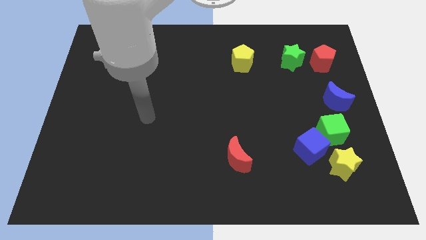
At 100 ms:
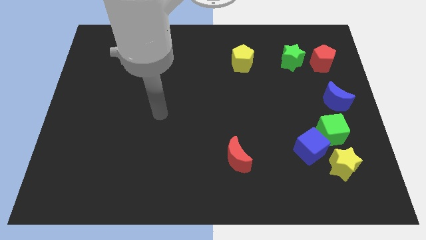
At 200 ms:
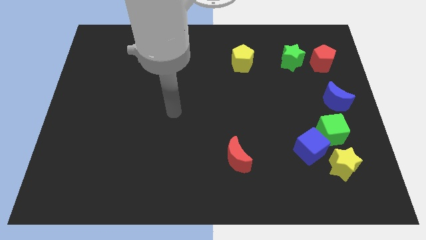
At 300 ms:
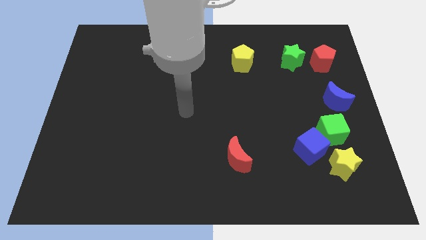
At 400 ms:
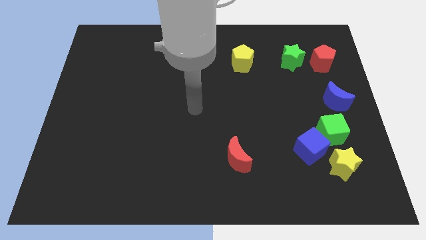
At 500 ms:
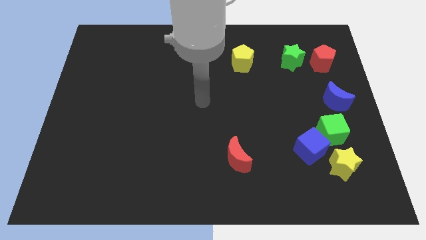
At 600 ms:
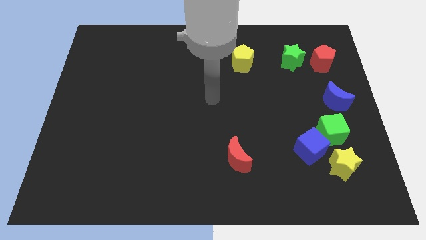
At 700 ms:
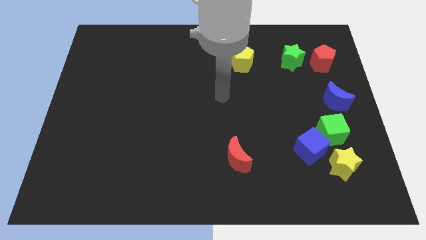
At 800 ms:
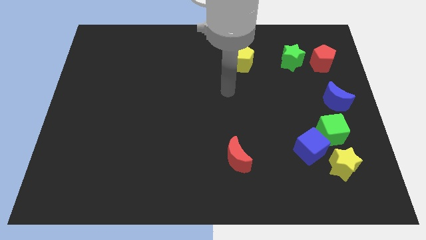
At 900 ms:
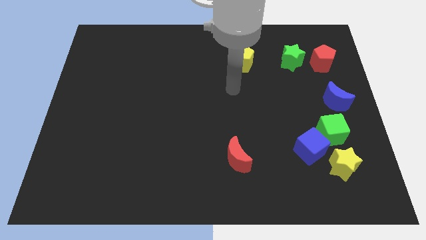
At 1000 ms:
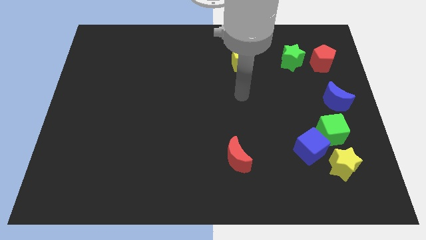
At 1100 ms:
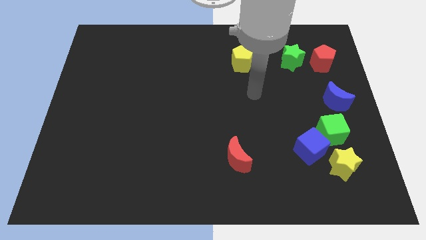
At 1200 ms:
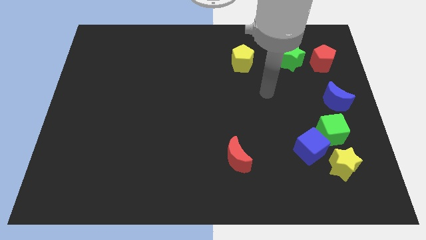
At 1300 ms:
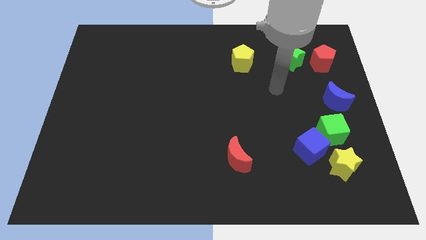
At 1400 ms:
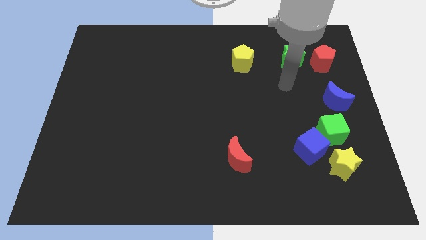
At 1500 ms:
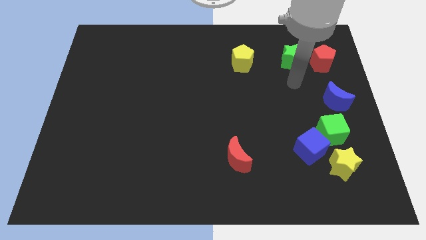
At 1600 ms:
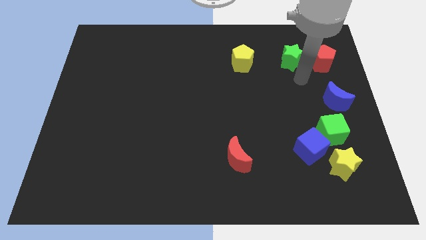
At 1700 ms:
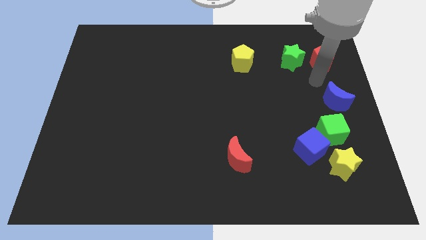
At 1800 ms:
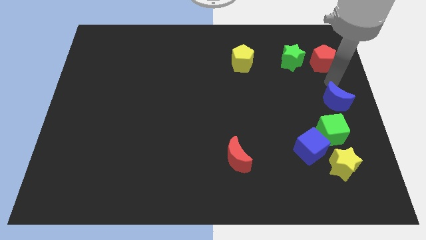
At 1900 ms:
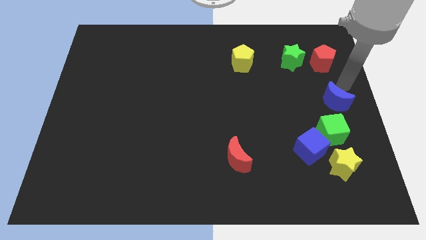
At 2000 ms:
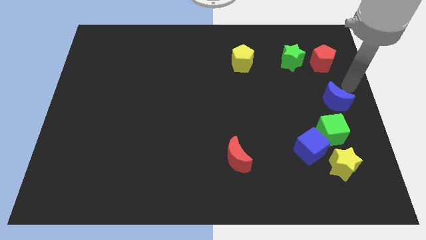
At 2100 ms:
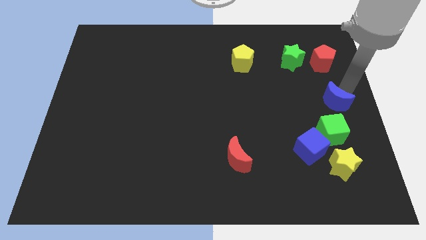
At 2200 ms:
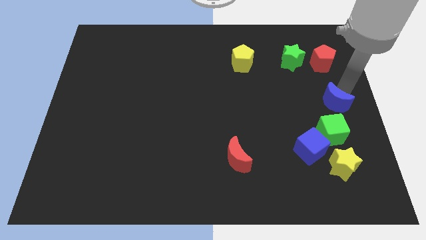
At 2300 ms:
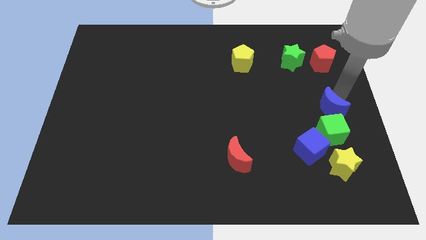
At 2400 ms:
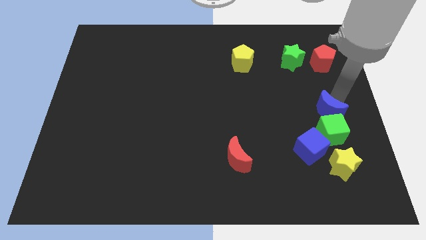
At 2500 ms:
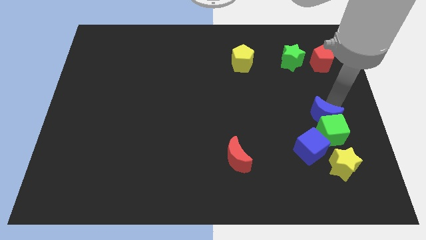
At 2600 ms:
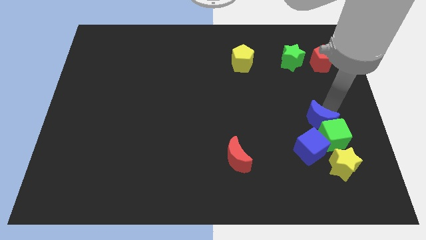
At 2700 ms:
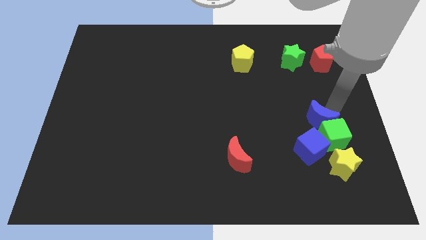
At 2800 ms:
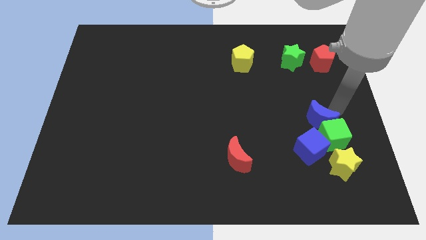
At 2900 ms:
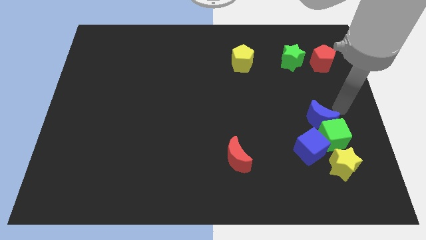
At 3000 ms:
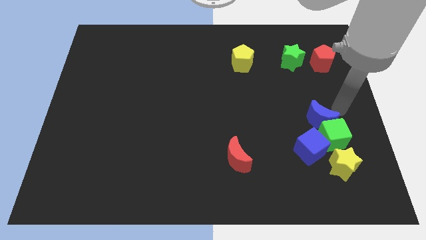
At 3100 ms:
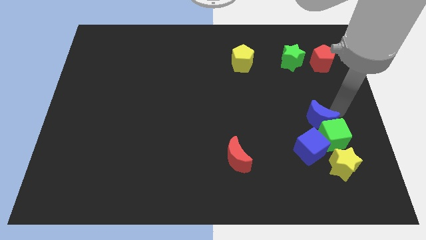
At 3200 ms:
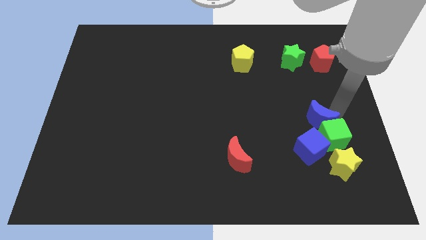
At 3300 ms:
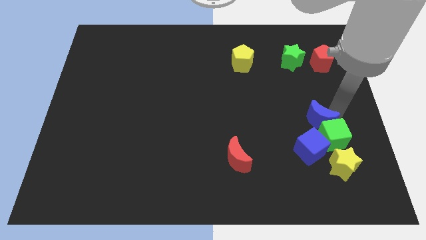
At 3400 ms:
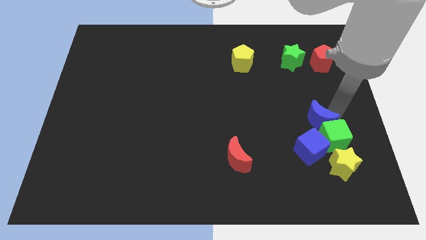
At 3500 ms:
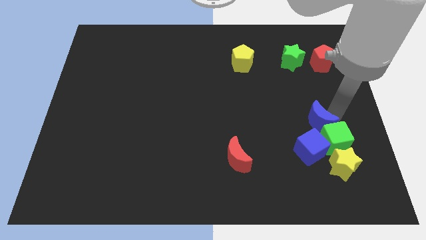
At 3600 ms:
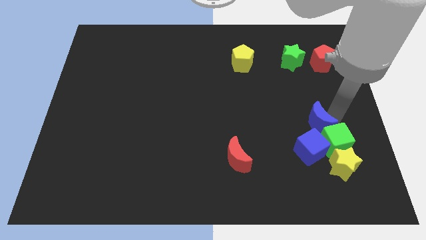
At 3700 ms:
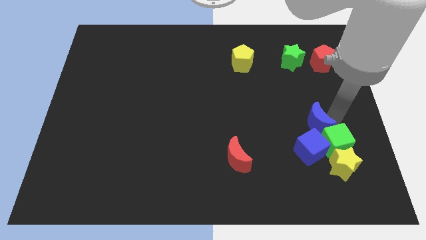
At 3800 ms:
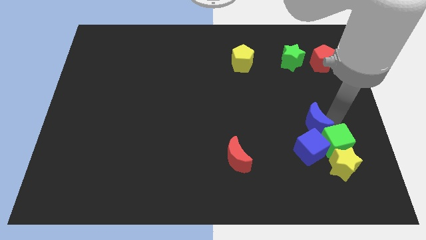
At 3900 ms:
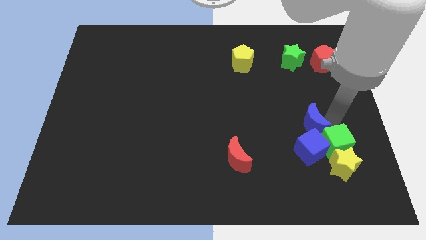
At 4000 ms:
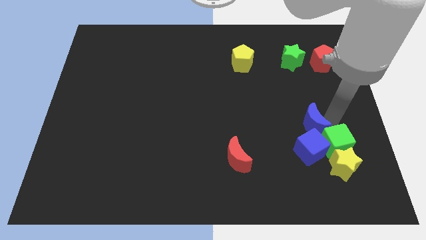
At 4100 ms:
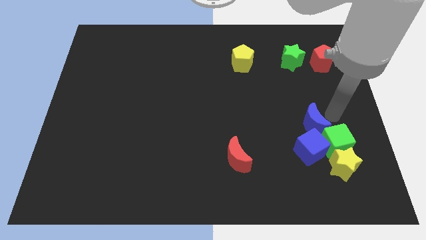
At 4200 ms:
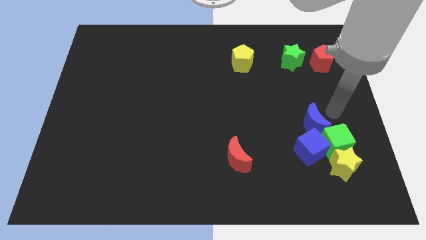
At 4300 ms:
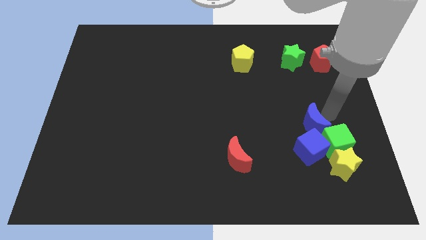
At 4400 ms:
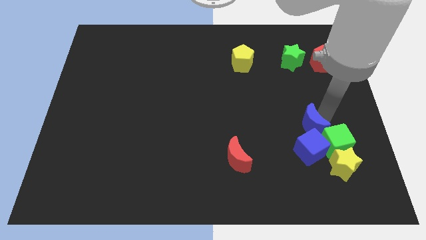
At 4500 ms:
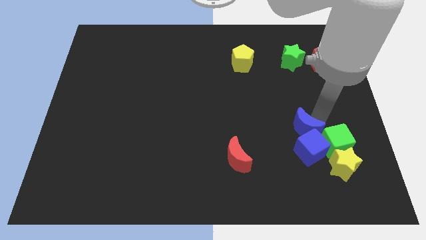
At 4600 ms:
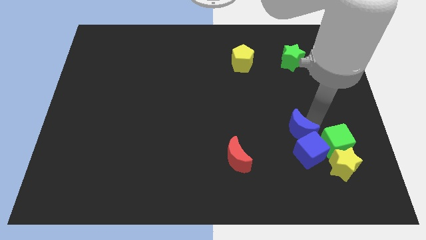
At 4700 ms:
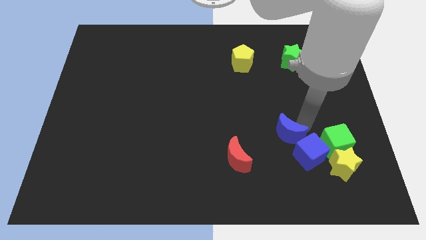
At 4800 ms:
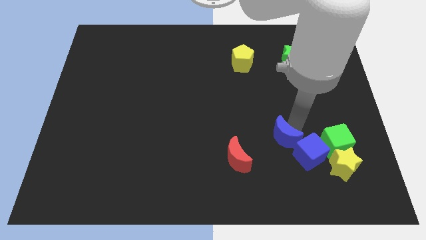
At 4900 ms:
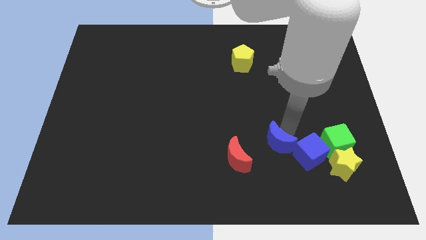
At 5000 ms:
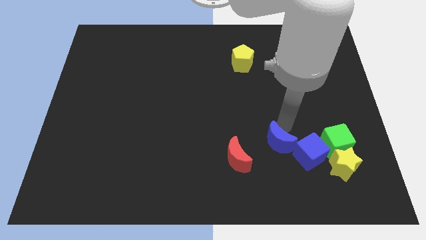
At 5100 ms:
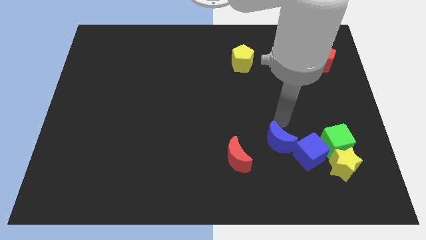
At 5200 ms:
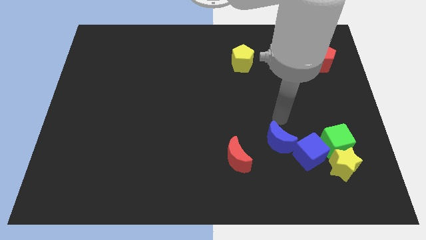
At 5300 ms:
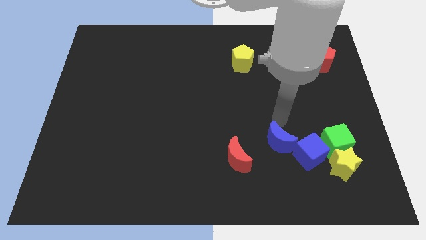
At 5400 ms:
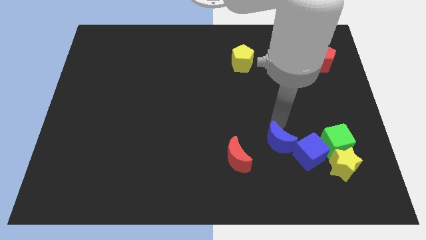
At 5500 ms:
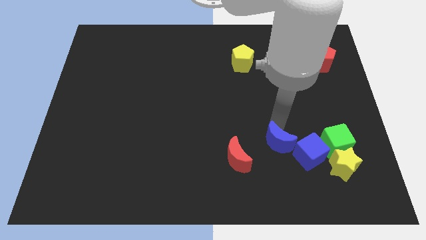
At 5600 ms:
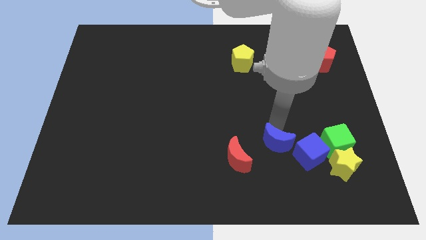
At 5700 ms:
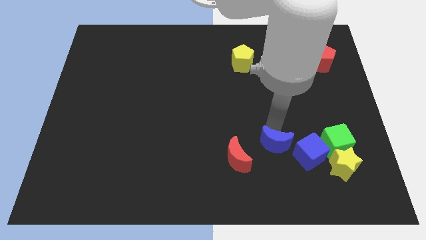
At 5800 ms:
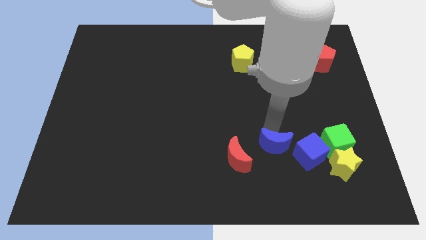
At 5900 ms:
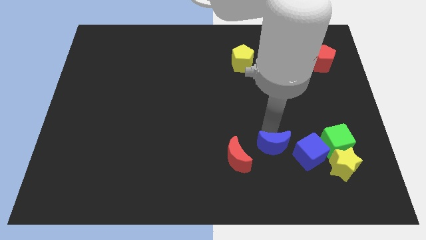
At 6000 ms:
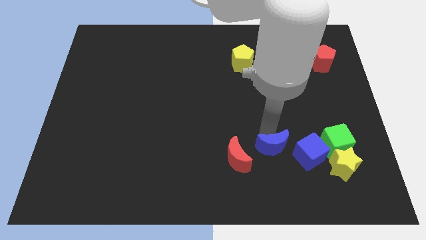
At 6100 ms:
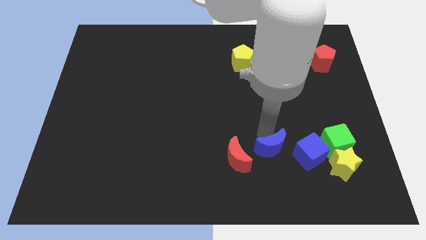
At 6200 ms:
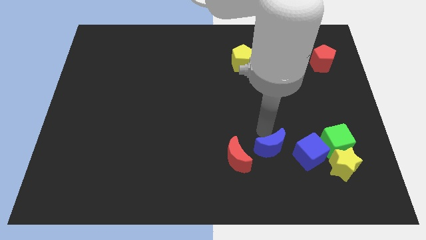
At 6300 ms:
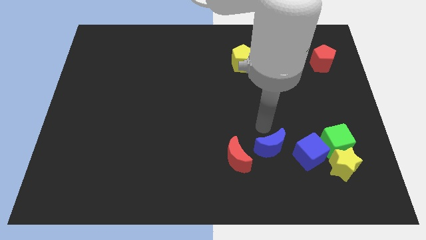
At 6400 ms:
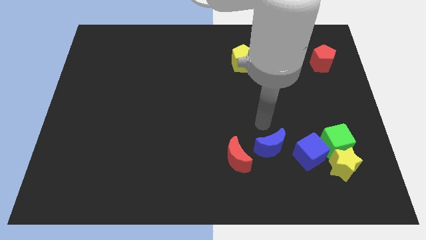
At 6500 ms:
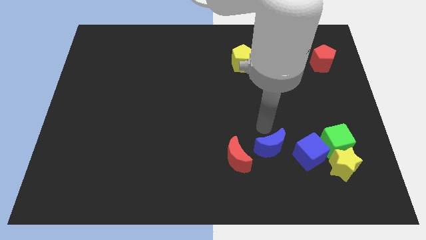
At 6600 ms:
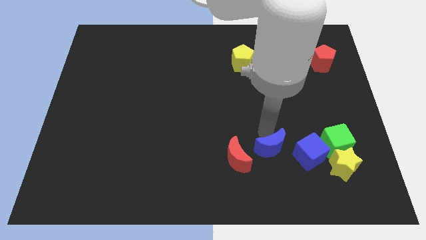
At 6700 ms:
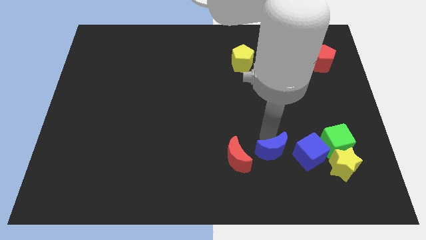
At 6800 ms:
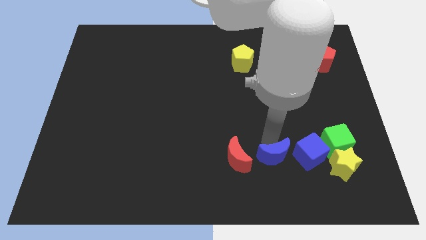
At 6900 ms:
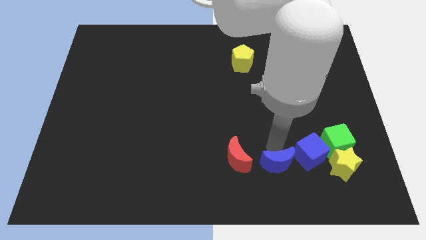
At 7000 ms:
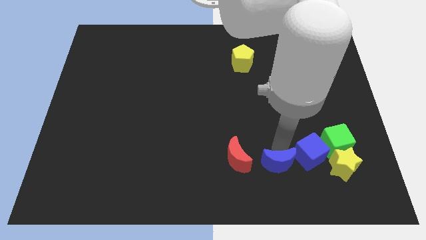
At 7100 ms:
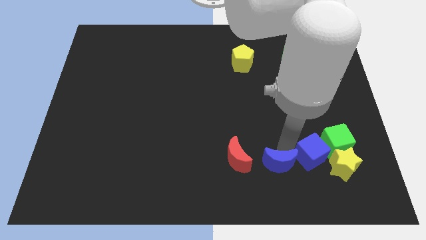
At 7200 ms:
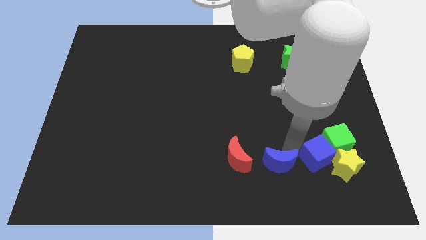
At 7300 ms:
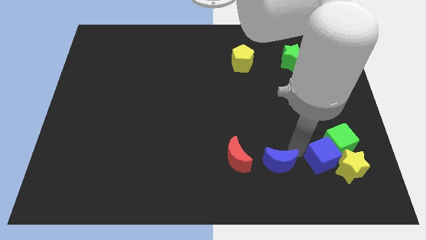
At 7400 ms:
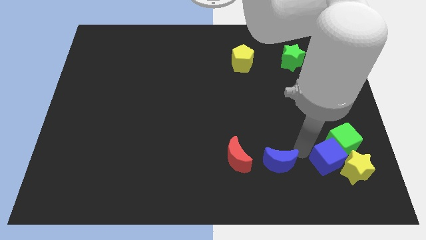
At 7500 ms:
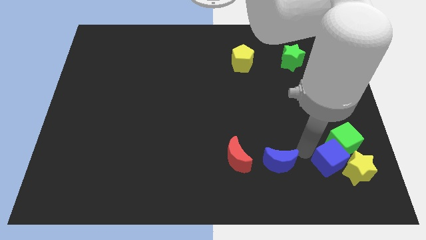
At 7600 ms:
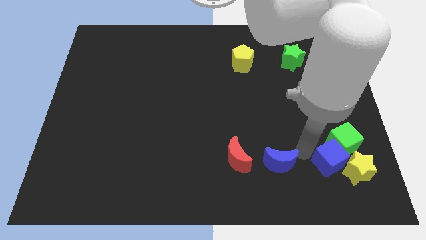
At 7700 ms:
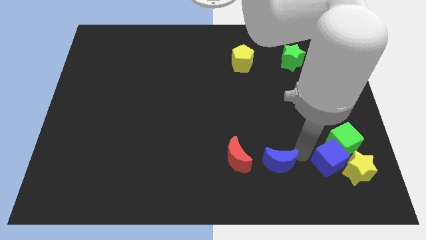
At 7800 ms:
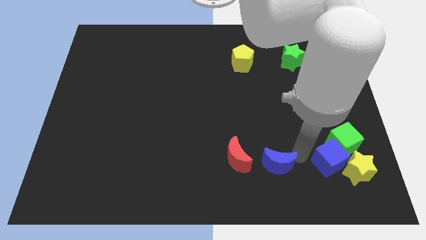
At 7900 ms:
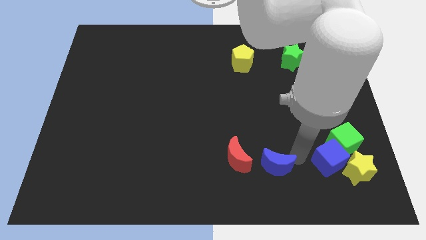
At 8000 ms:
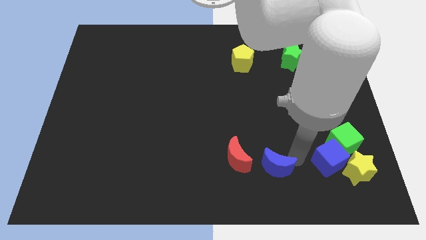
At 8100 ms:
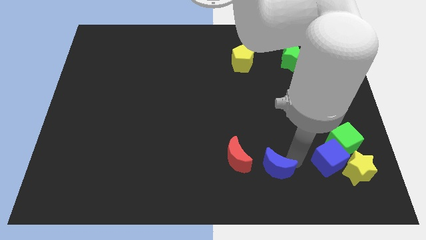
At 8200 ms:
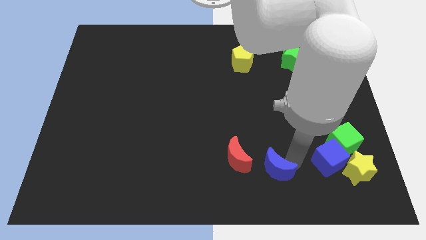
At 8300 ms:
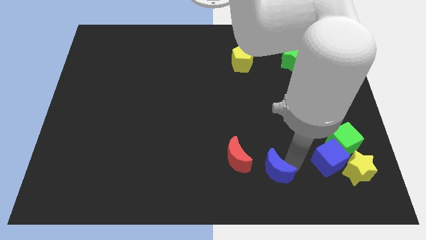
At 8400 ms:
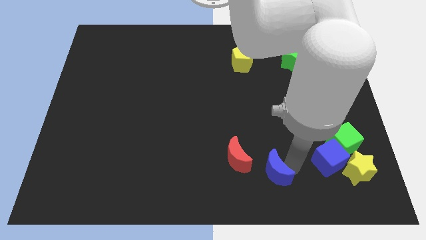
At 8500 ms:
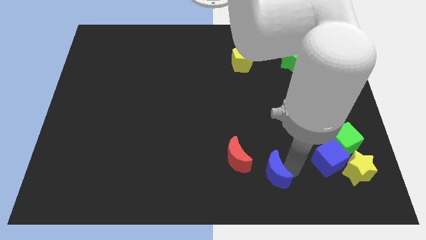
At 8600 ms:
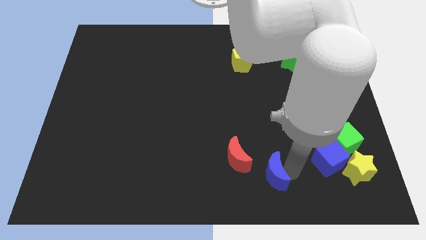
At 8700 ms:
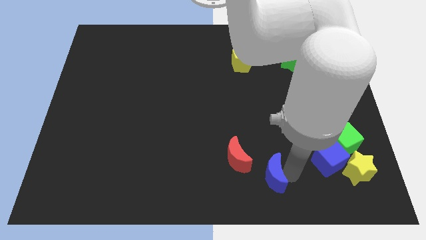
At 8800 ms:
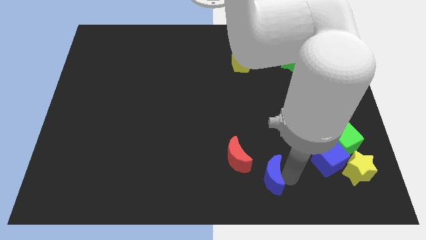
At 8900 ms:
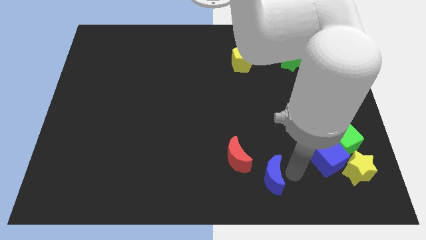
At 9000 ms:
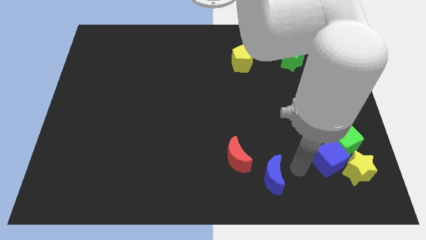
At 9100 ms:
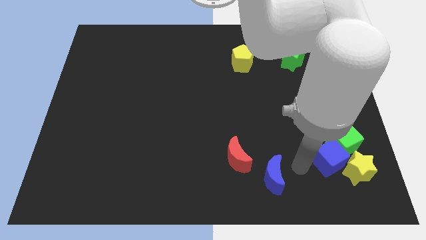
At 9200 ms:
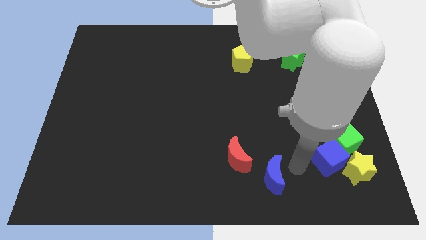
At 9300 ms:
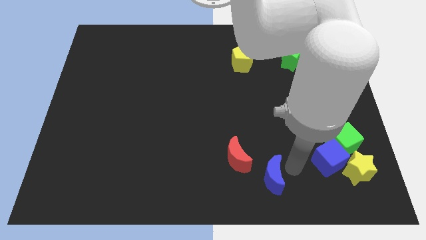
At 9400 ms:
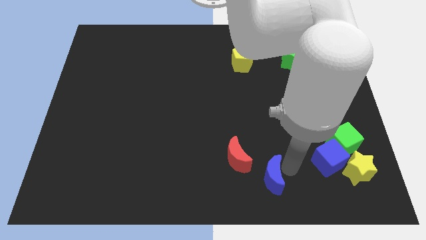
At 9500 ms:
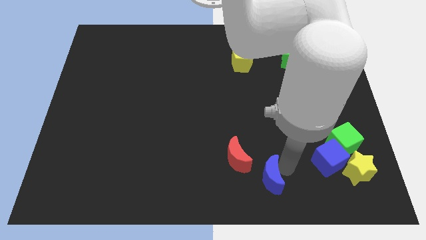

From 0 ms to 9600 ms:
push the blue moon to the bottom
